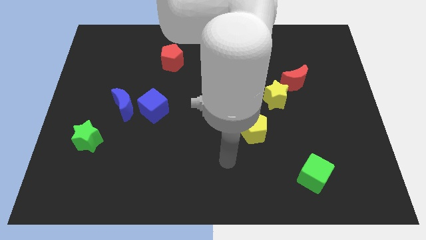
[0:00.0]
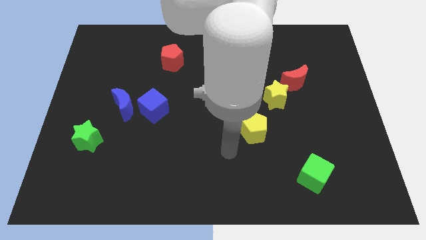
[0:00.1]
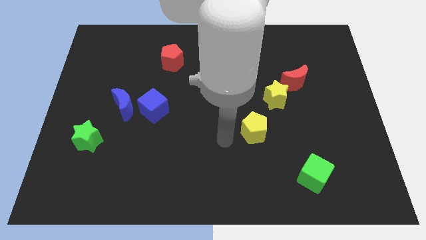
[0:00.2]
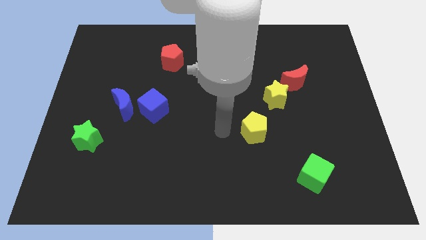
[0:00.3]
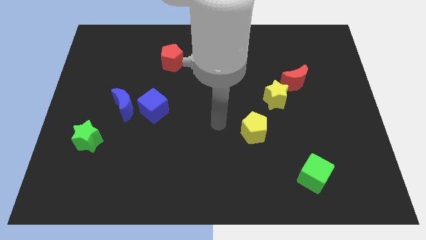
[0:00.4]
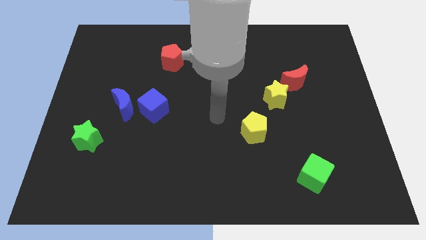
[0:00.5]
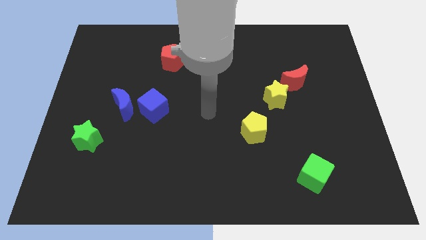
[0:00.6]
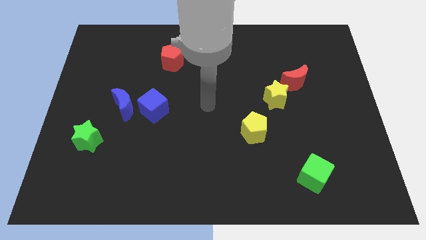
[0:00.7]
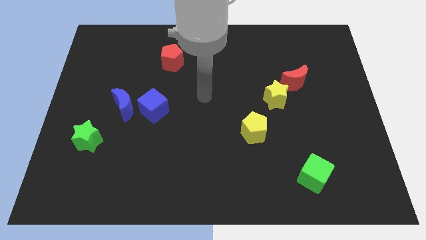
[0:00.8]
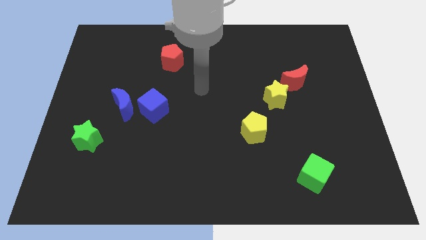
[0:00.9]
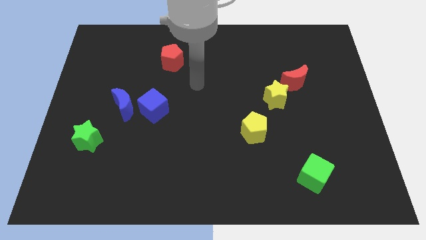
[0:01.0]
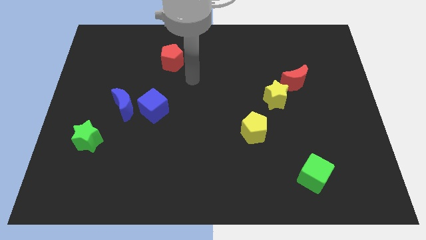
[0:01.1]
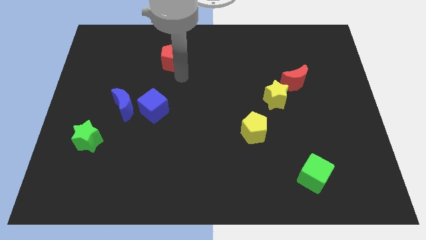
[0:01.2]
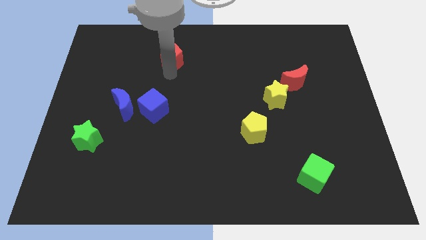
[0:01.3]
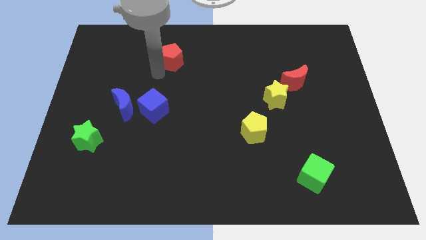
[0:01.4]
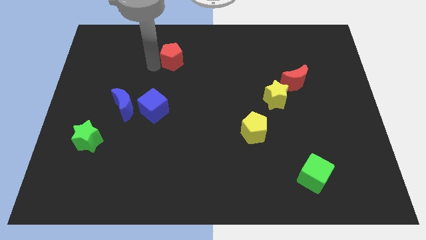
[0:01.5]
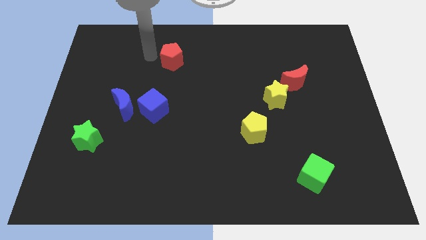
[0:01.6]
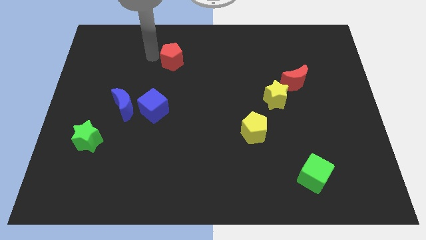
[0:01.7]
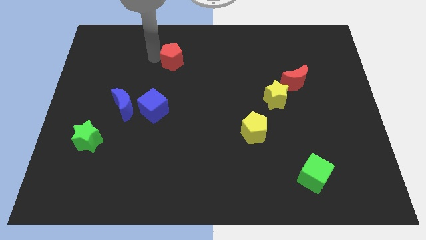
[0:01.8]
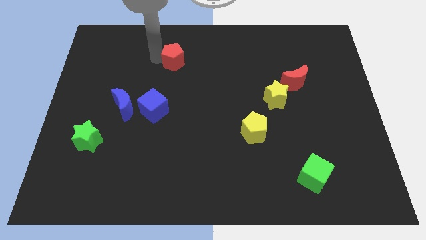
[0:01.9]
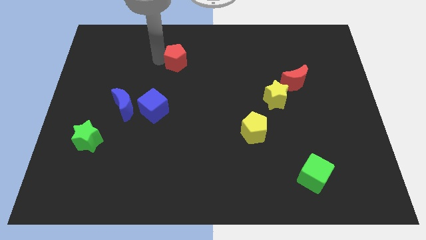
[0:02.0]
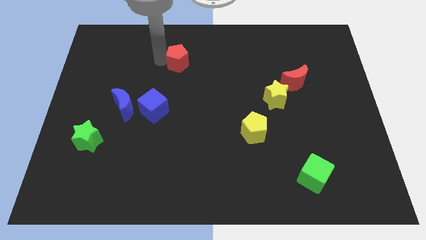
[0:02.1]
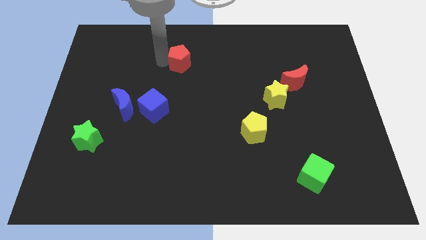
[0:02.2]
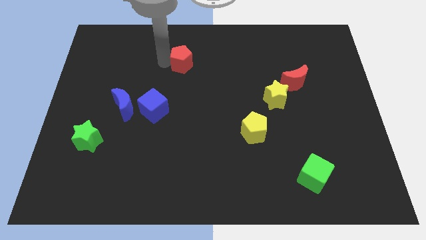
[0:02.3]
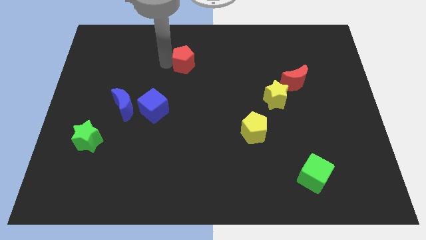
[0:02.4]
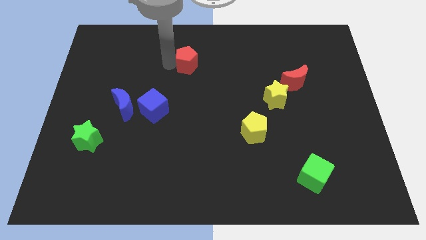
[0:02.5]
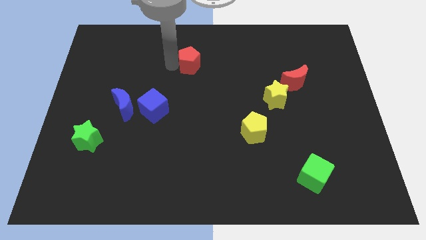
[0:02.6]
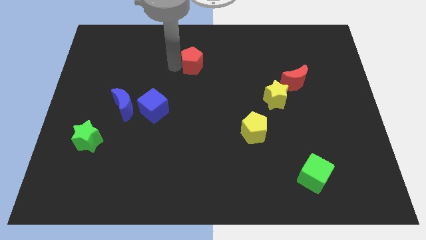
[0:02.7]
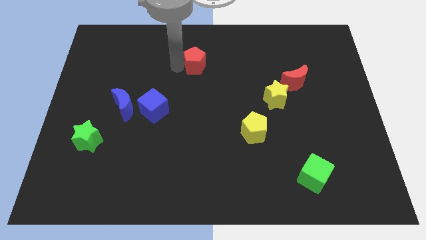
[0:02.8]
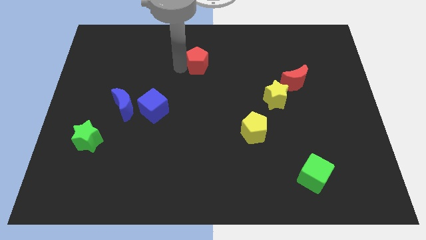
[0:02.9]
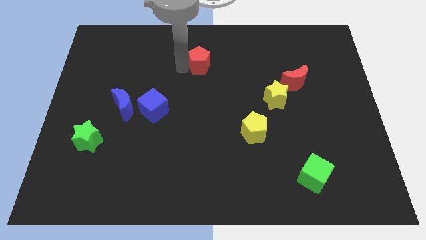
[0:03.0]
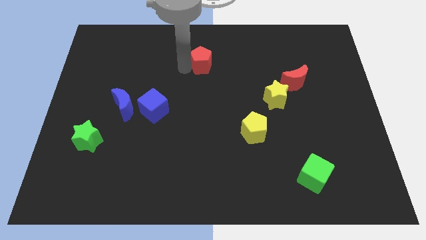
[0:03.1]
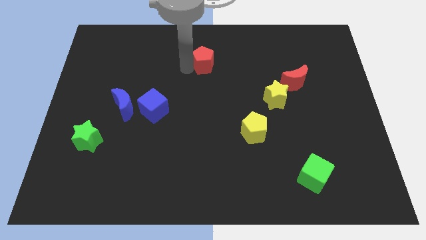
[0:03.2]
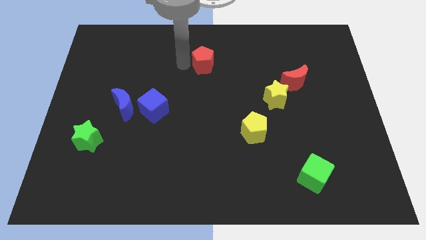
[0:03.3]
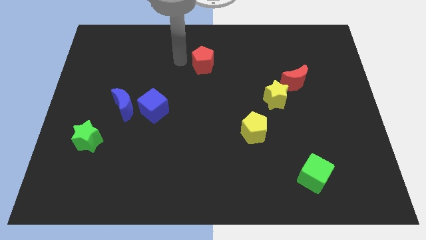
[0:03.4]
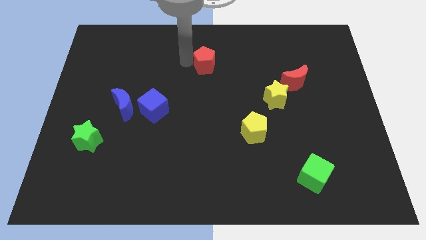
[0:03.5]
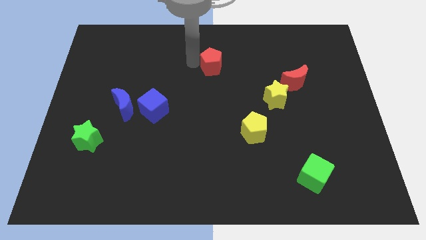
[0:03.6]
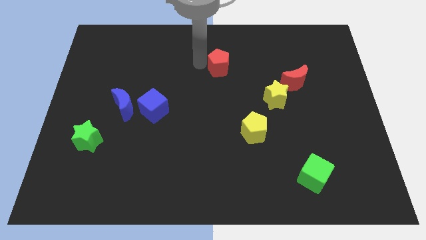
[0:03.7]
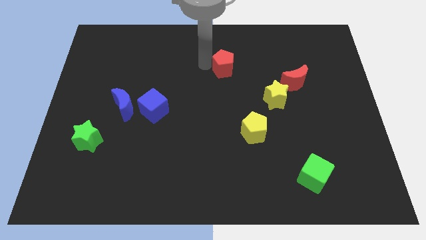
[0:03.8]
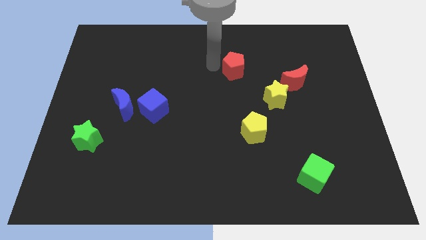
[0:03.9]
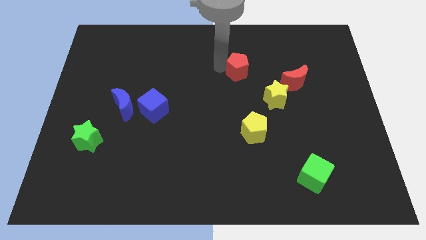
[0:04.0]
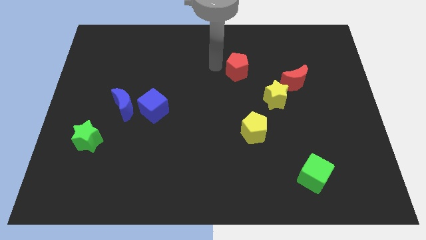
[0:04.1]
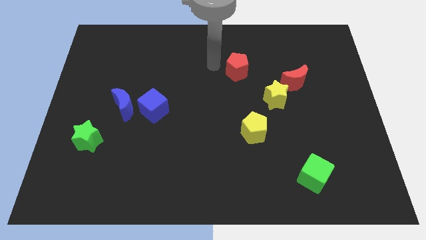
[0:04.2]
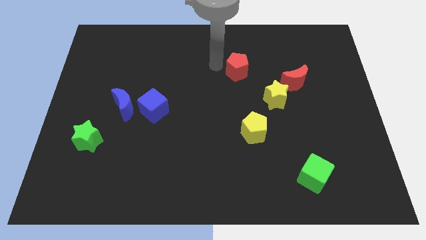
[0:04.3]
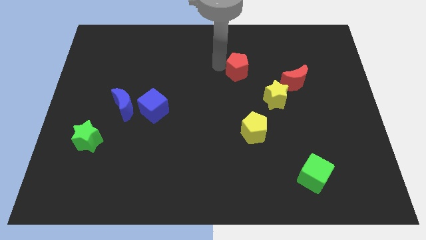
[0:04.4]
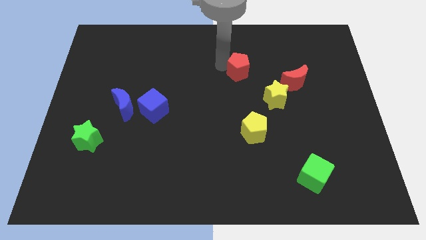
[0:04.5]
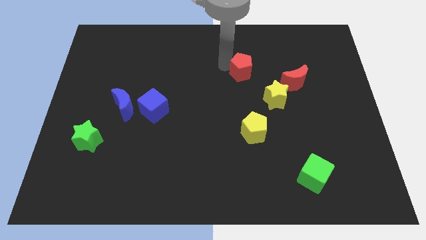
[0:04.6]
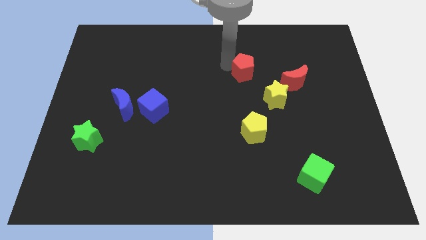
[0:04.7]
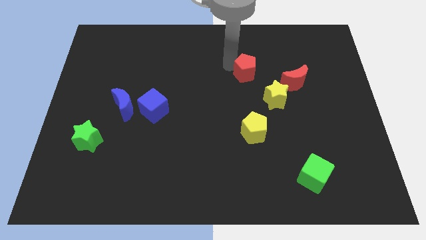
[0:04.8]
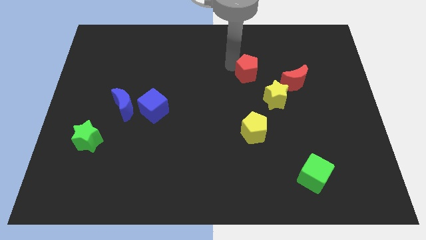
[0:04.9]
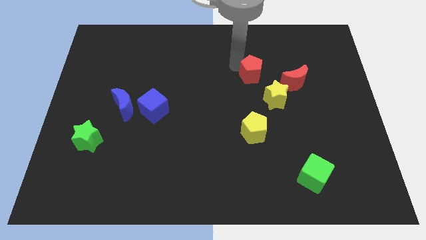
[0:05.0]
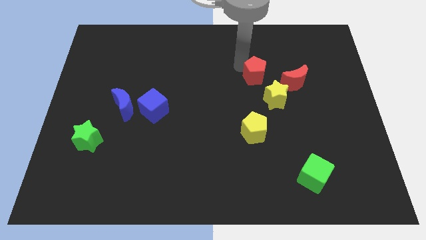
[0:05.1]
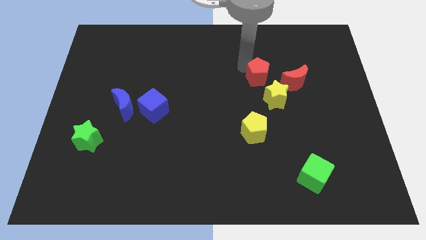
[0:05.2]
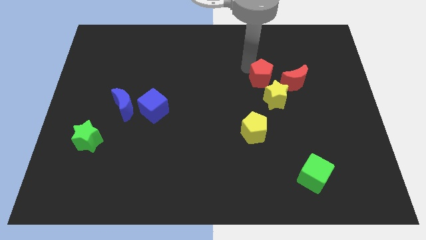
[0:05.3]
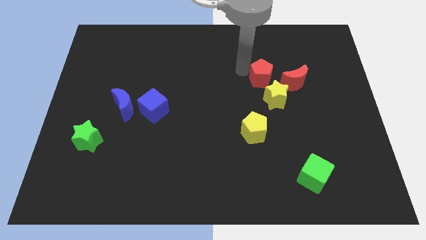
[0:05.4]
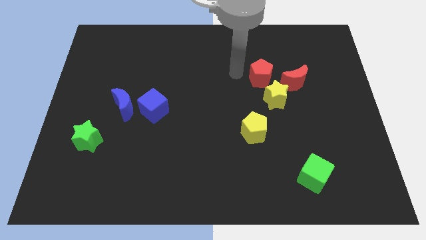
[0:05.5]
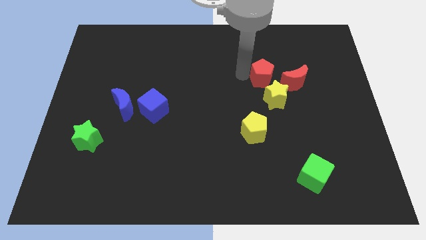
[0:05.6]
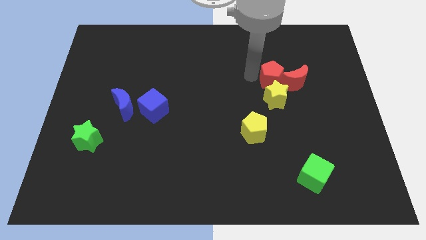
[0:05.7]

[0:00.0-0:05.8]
put the red pentagon close to the red moon

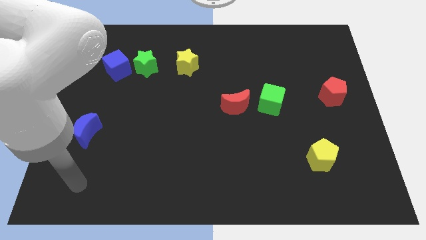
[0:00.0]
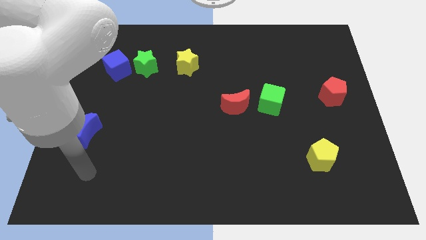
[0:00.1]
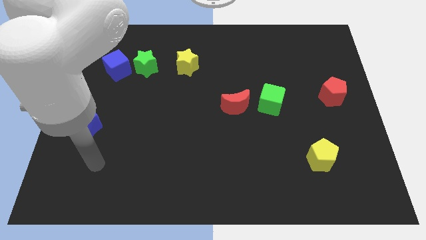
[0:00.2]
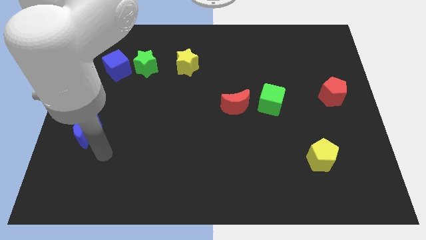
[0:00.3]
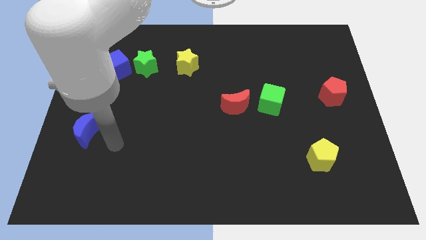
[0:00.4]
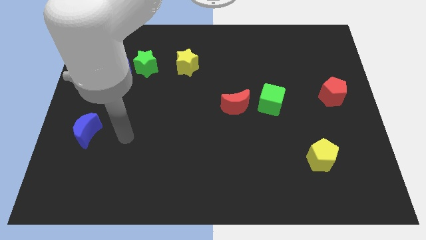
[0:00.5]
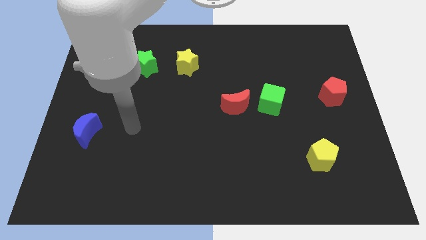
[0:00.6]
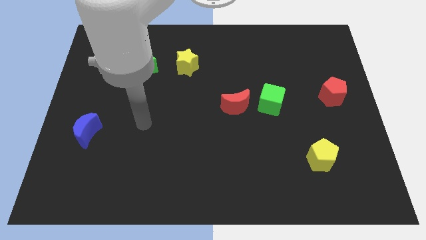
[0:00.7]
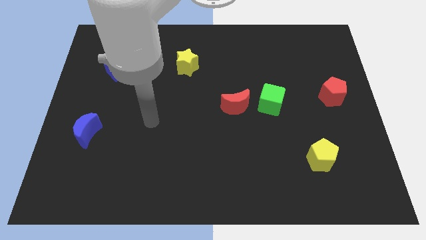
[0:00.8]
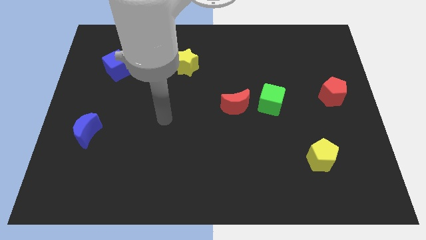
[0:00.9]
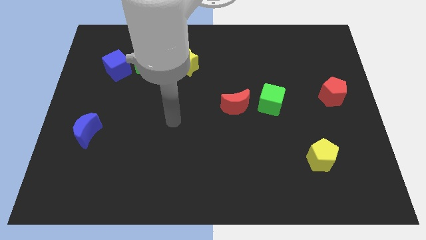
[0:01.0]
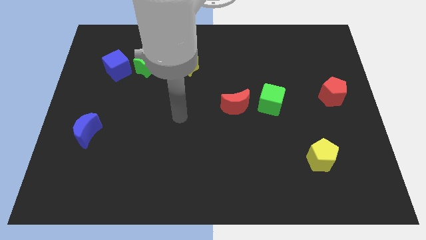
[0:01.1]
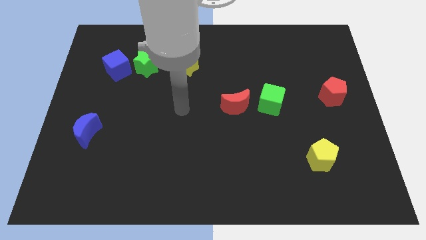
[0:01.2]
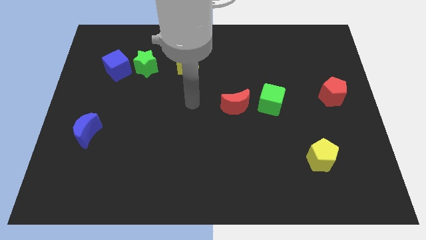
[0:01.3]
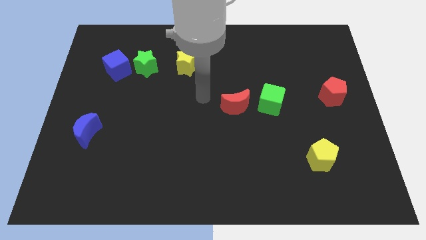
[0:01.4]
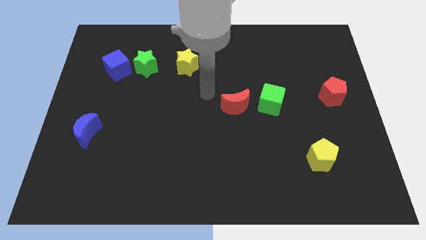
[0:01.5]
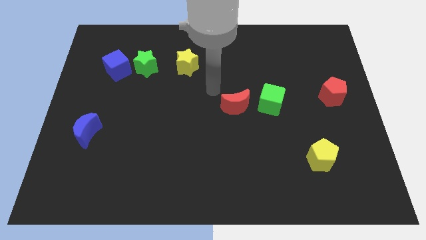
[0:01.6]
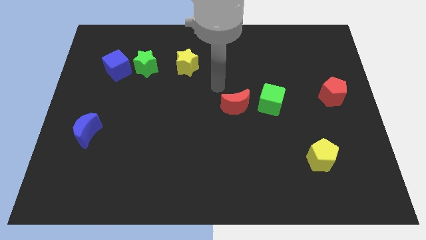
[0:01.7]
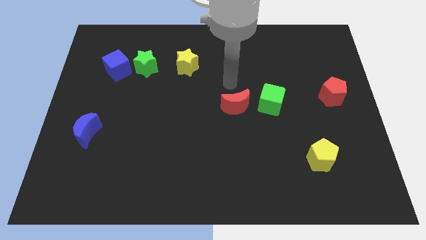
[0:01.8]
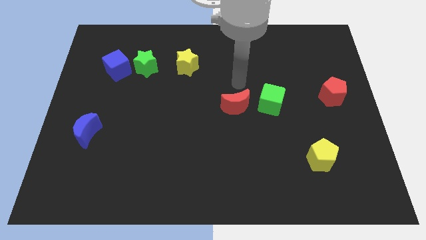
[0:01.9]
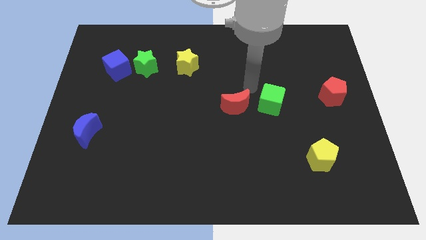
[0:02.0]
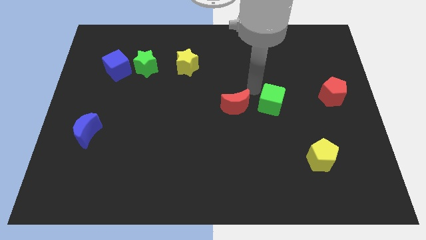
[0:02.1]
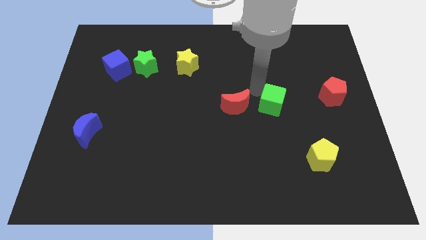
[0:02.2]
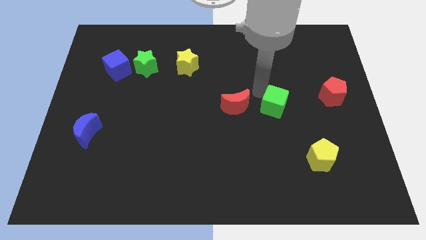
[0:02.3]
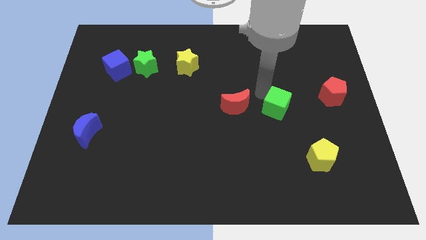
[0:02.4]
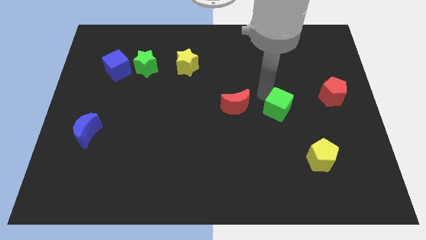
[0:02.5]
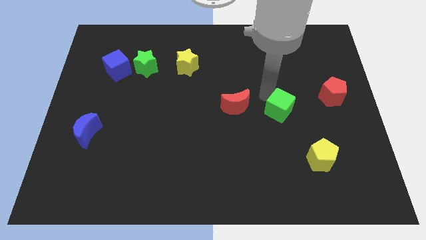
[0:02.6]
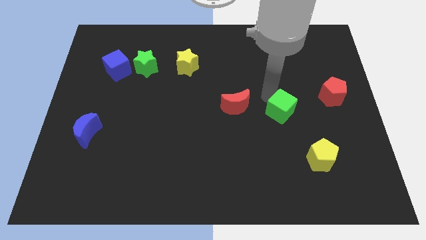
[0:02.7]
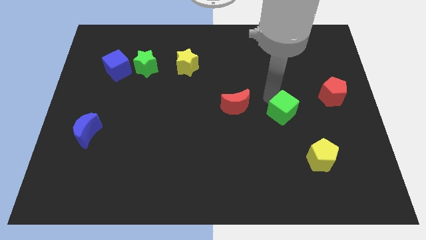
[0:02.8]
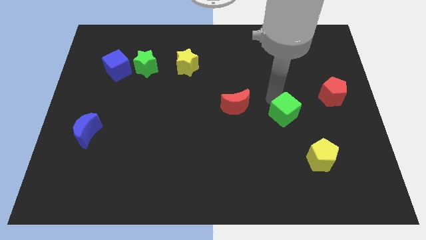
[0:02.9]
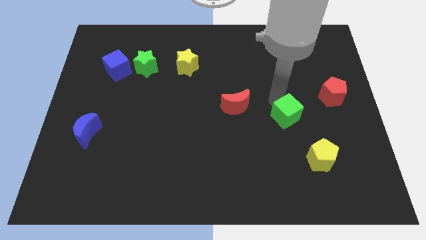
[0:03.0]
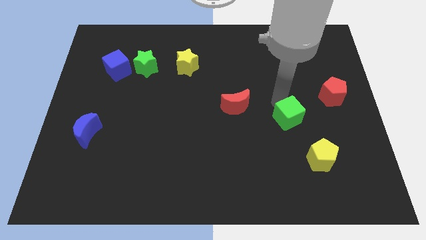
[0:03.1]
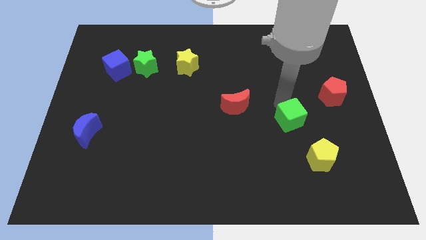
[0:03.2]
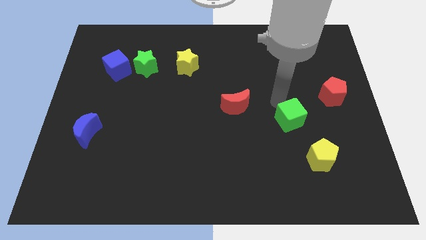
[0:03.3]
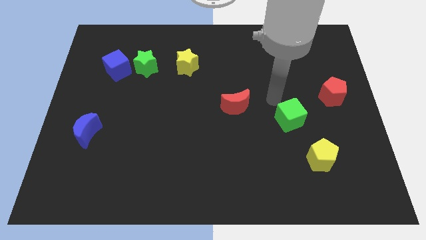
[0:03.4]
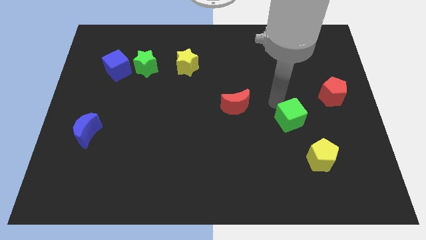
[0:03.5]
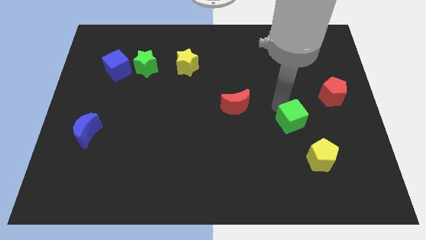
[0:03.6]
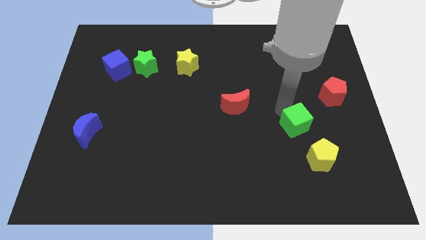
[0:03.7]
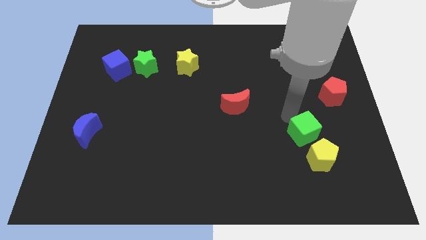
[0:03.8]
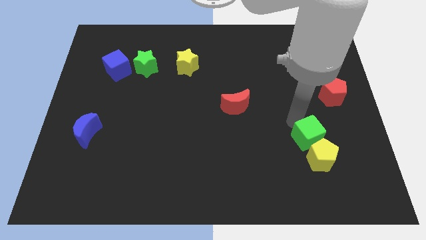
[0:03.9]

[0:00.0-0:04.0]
push the green cube close to the yellow pentagon
